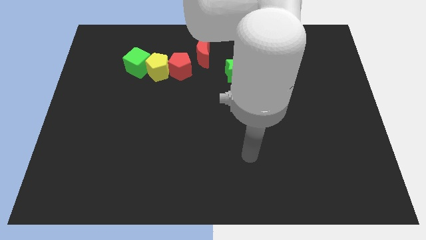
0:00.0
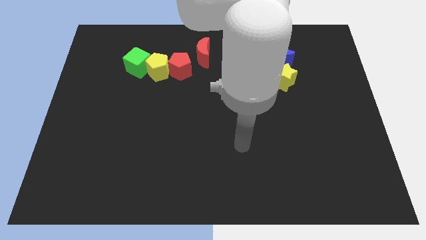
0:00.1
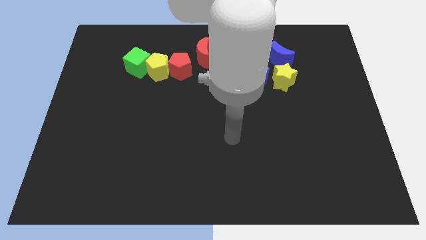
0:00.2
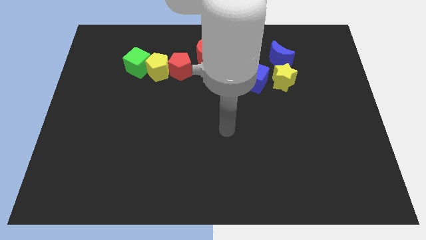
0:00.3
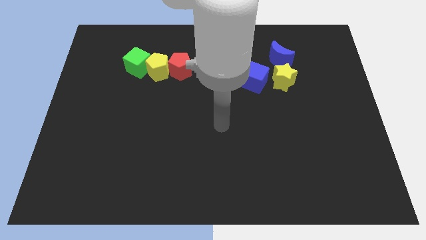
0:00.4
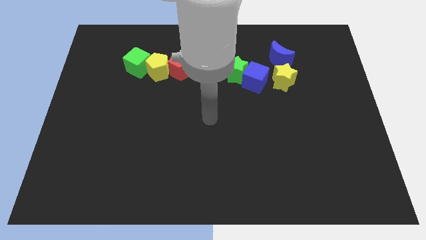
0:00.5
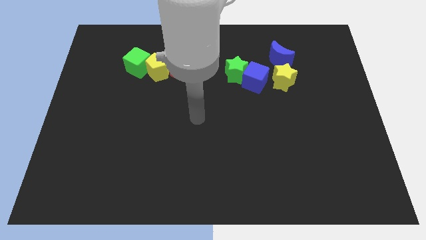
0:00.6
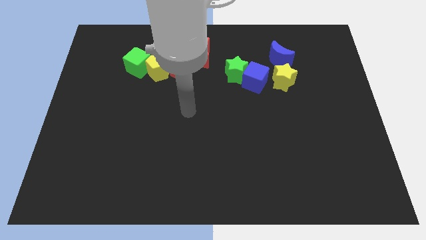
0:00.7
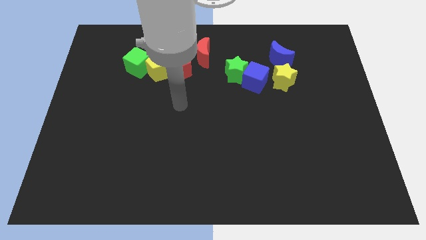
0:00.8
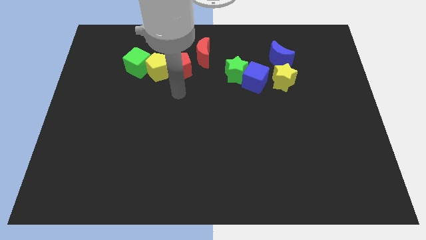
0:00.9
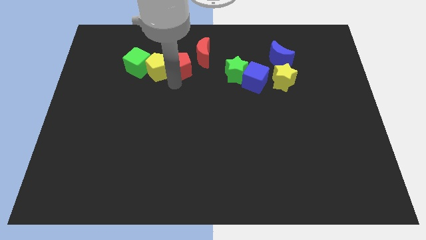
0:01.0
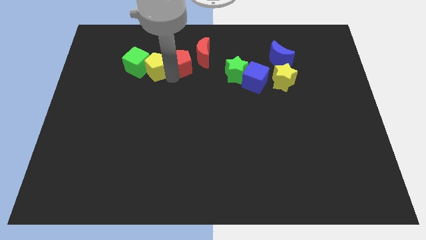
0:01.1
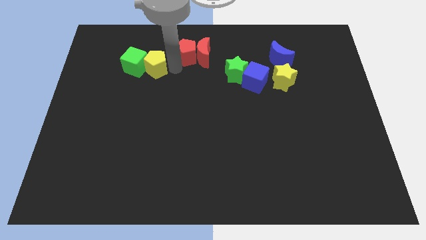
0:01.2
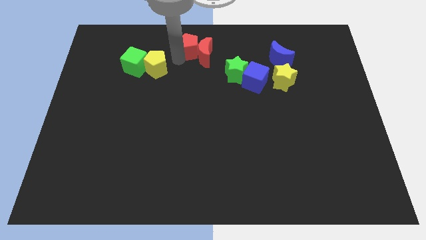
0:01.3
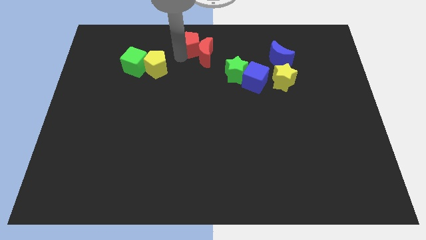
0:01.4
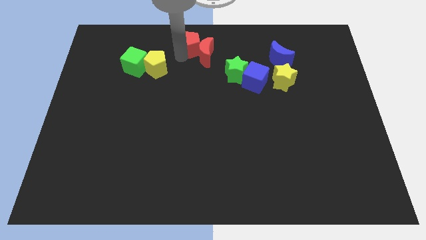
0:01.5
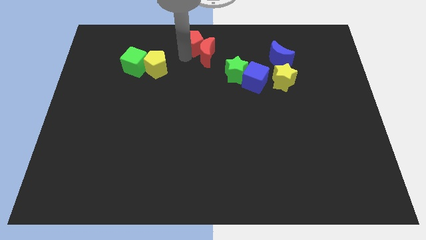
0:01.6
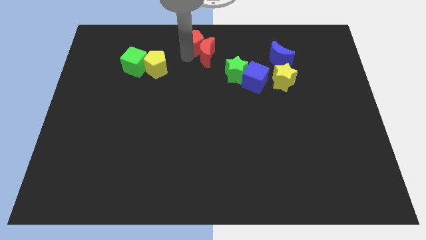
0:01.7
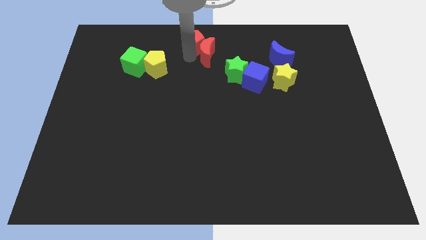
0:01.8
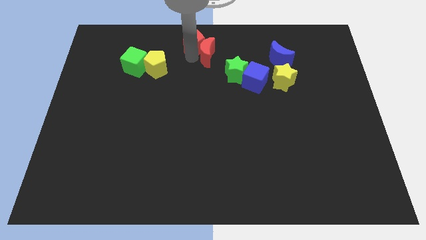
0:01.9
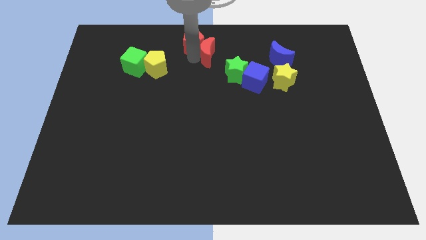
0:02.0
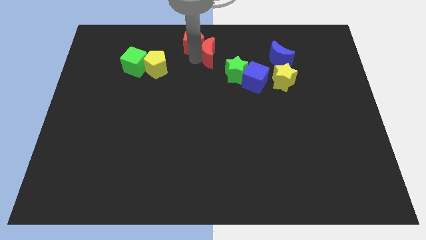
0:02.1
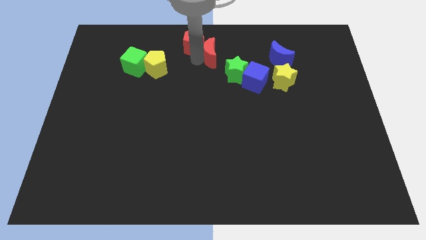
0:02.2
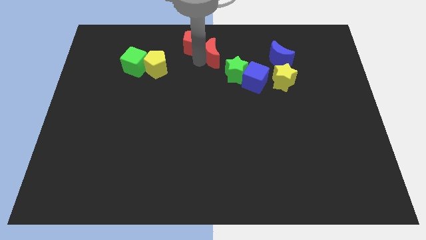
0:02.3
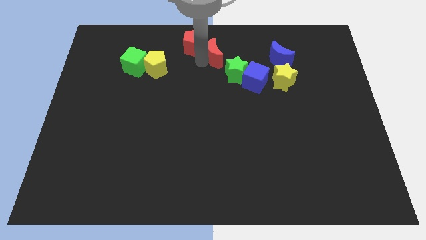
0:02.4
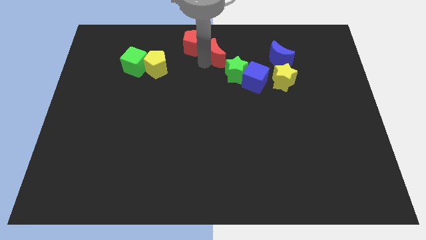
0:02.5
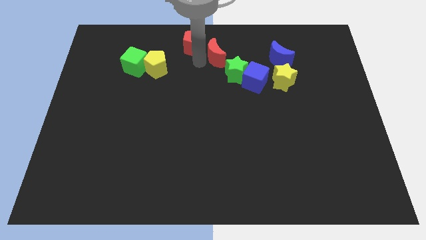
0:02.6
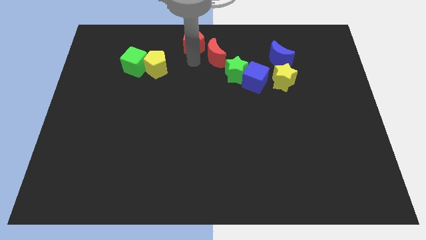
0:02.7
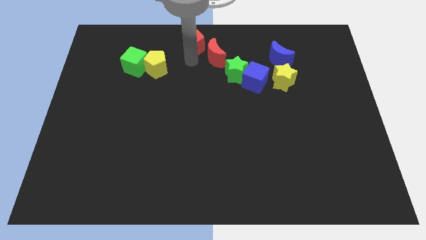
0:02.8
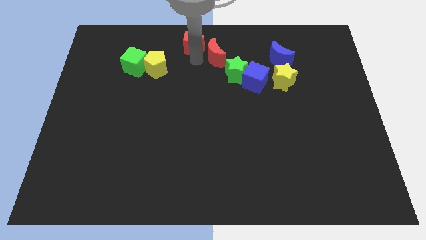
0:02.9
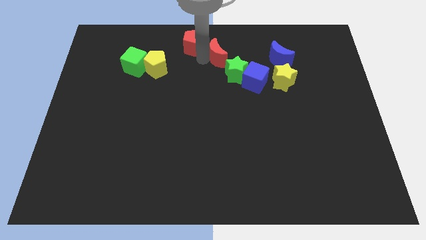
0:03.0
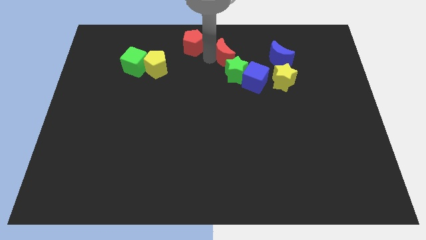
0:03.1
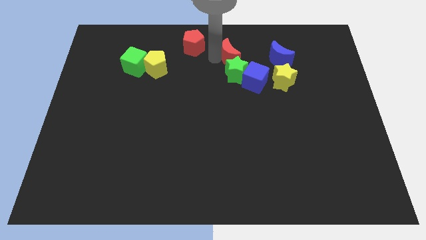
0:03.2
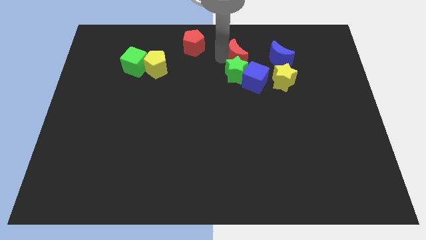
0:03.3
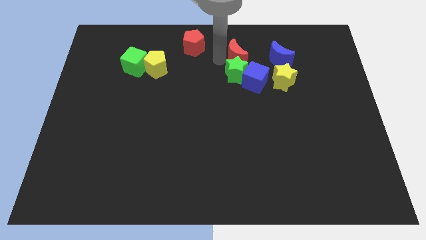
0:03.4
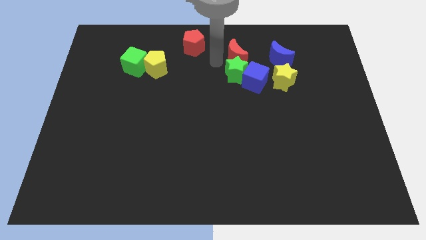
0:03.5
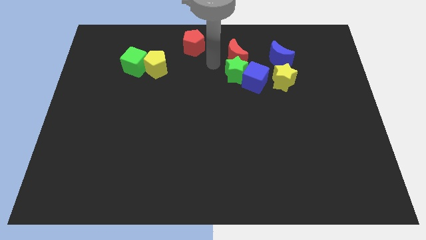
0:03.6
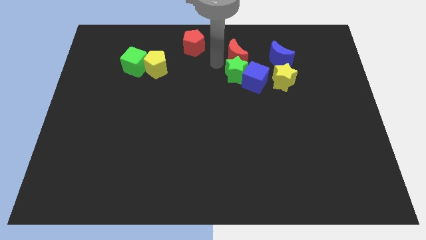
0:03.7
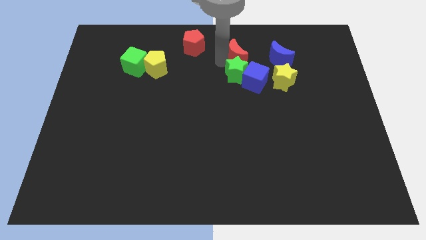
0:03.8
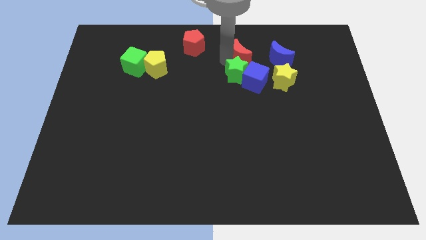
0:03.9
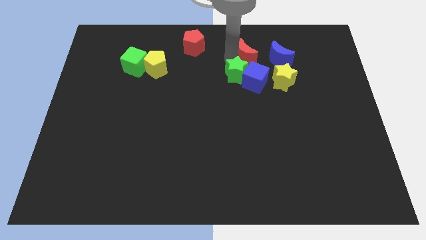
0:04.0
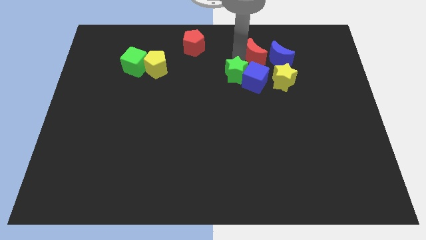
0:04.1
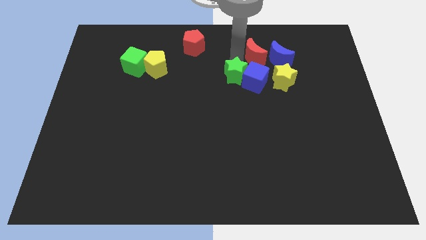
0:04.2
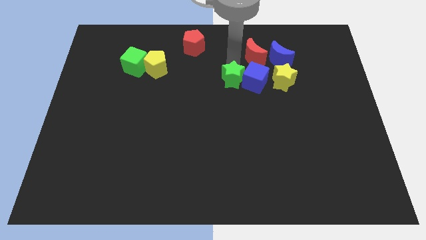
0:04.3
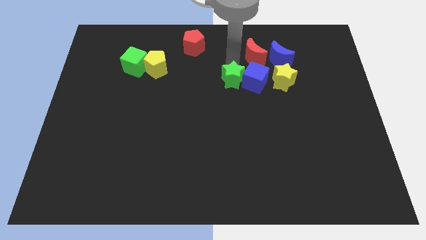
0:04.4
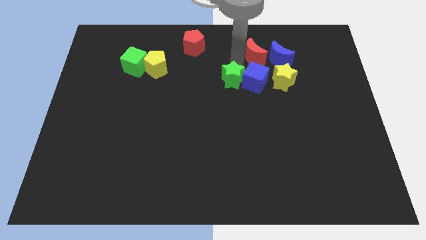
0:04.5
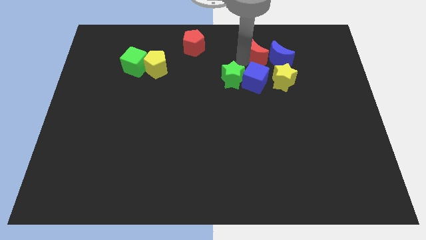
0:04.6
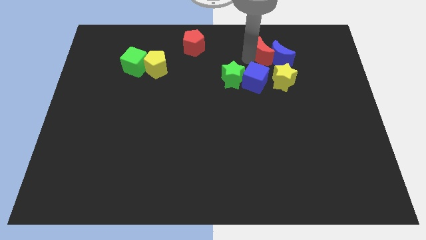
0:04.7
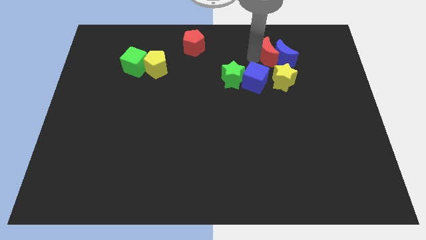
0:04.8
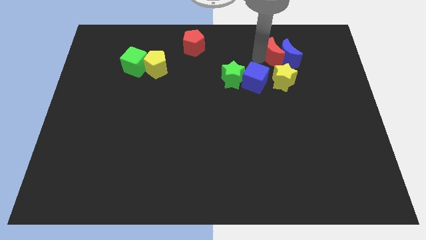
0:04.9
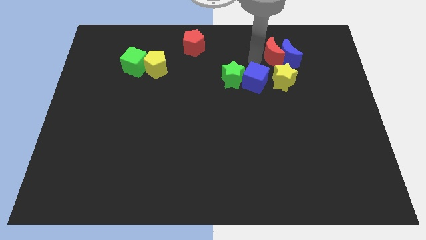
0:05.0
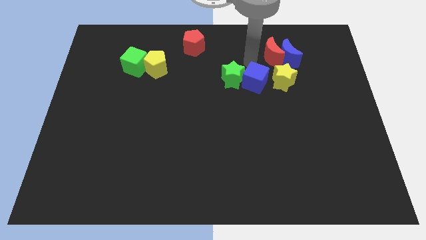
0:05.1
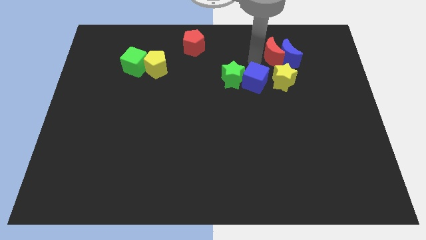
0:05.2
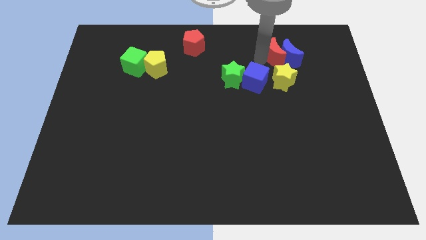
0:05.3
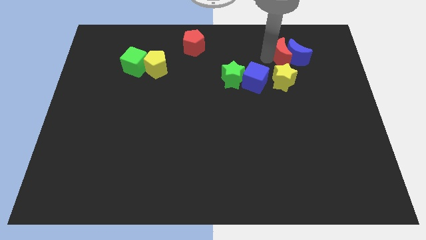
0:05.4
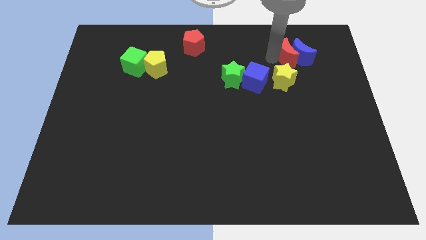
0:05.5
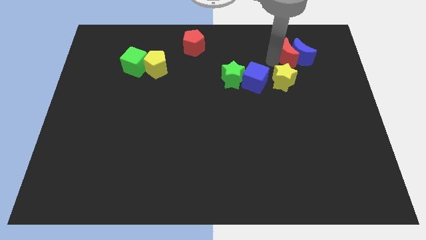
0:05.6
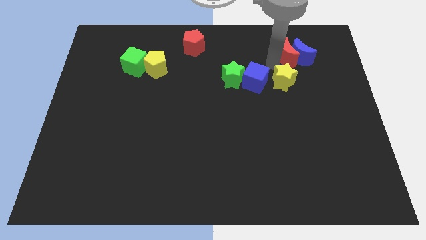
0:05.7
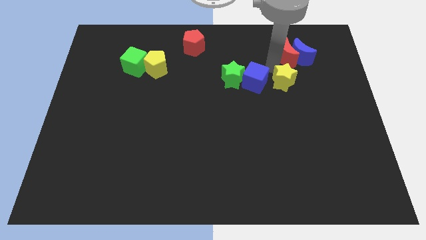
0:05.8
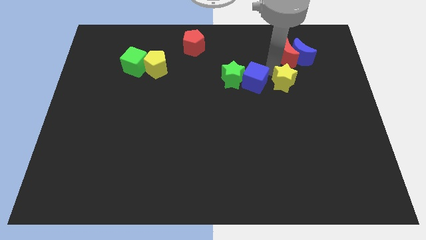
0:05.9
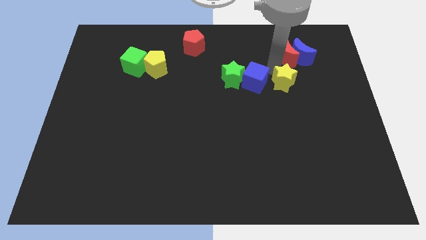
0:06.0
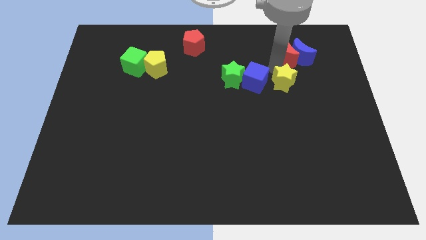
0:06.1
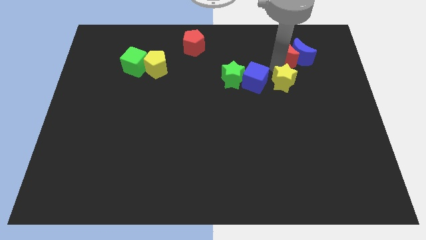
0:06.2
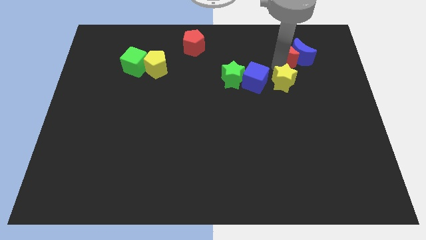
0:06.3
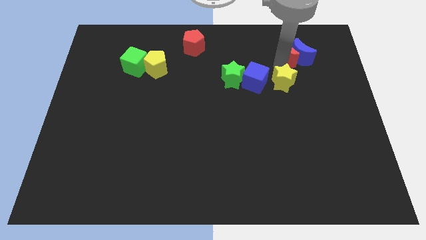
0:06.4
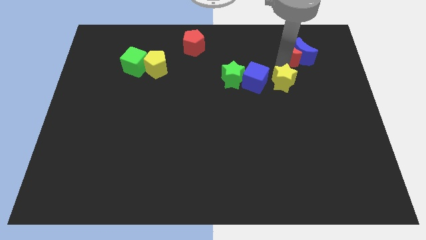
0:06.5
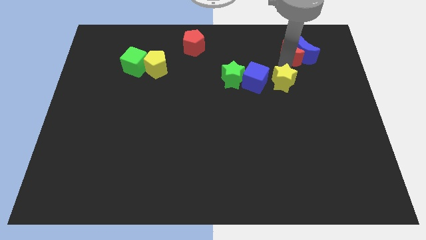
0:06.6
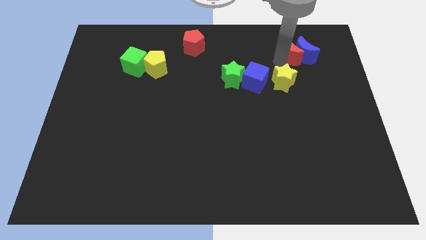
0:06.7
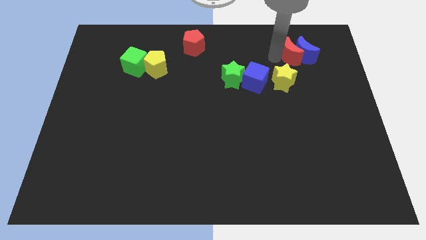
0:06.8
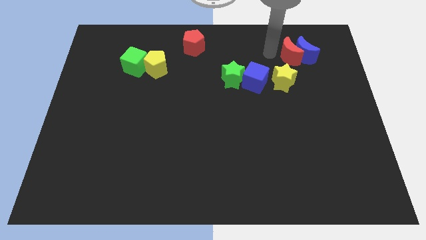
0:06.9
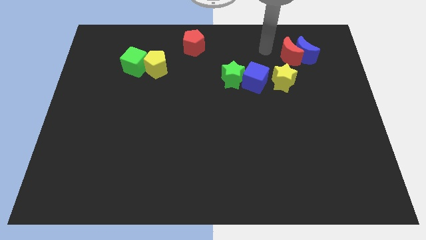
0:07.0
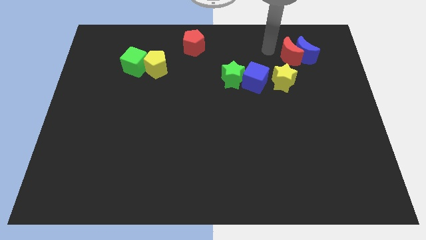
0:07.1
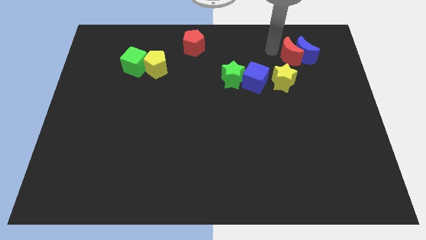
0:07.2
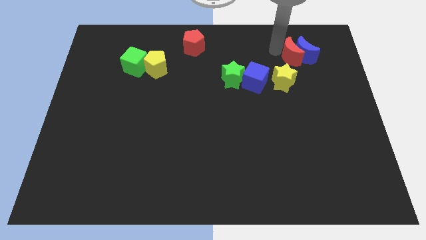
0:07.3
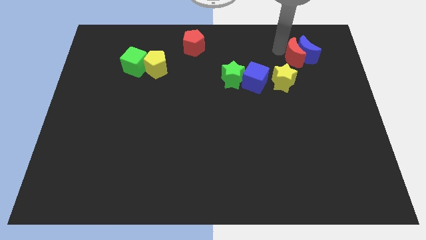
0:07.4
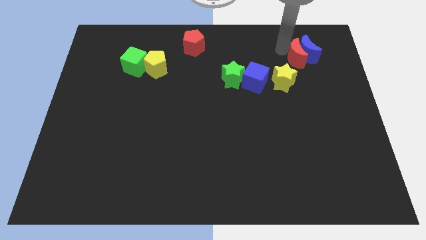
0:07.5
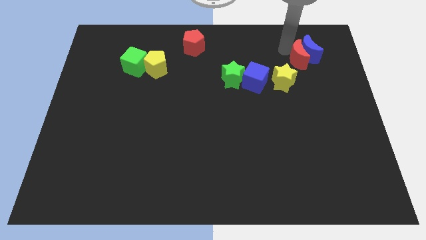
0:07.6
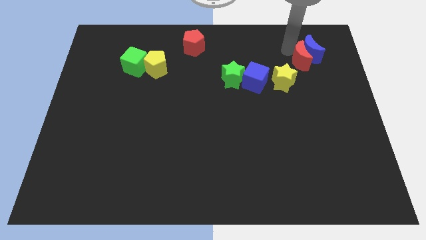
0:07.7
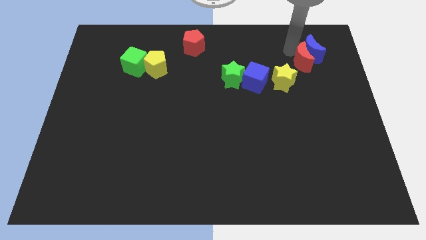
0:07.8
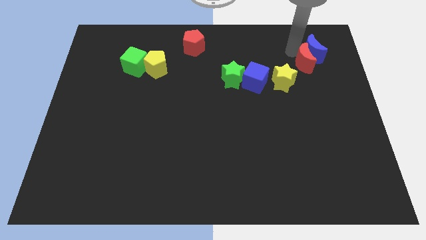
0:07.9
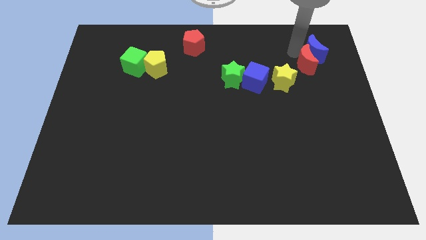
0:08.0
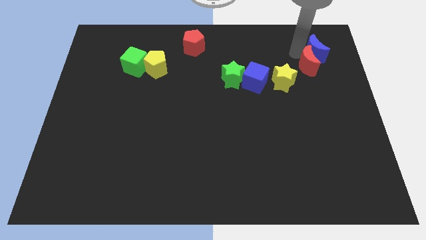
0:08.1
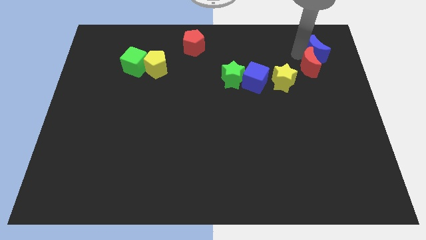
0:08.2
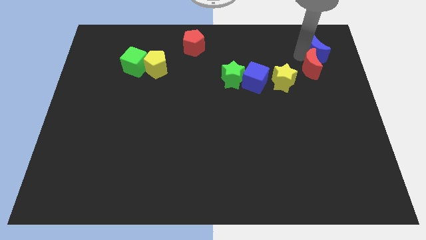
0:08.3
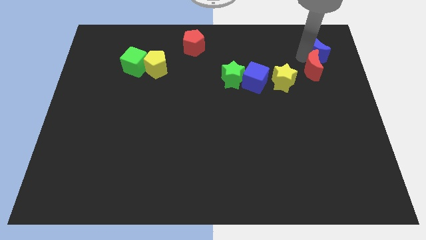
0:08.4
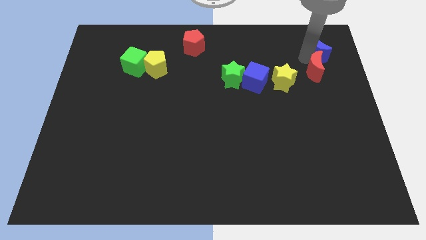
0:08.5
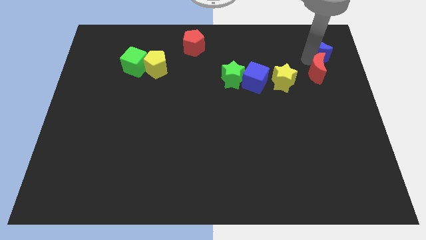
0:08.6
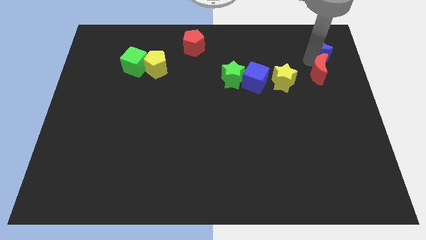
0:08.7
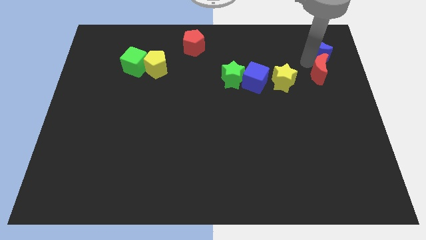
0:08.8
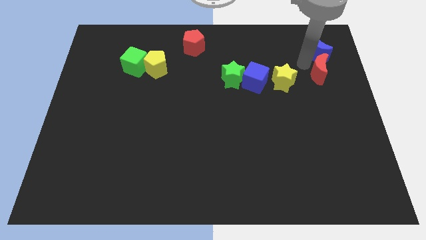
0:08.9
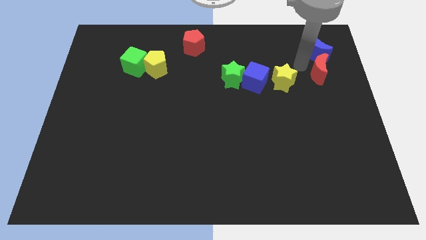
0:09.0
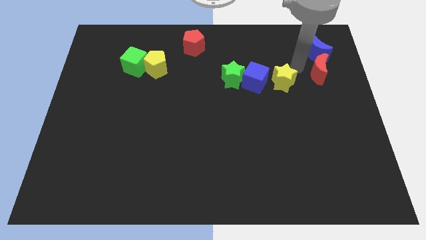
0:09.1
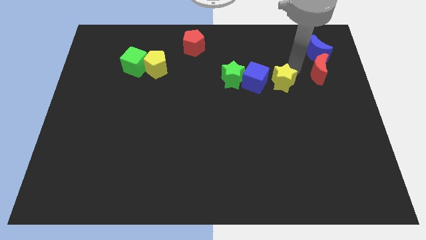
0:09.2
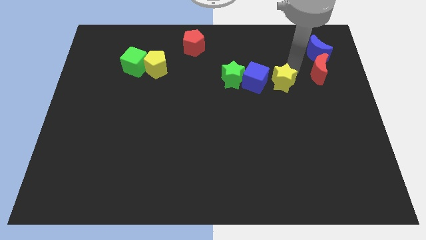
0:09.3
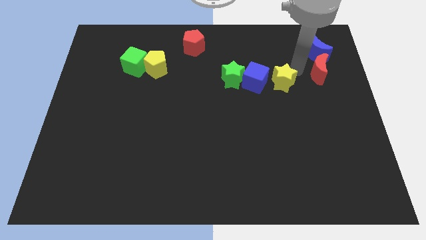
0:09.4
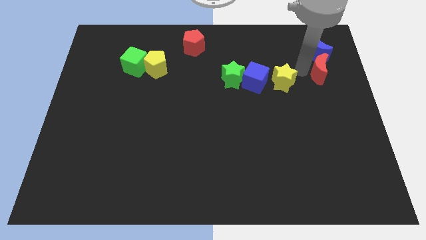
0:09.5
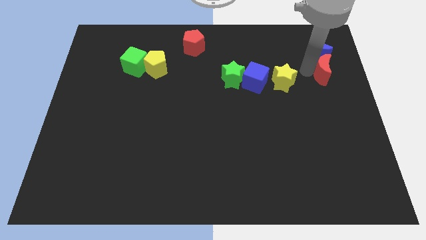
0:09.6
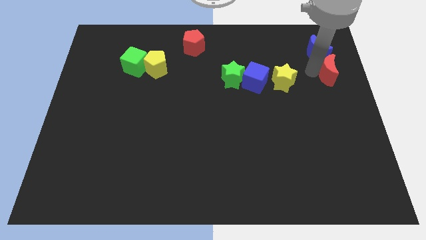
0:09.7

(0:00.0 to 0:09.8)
push the red moon to the center right
